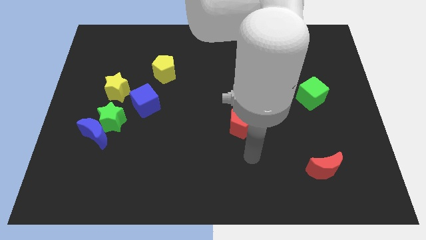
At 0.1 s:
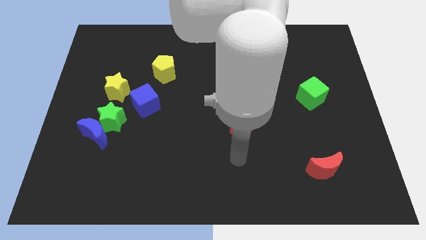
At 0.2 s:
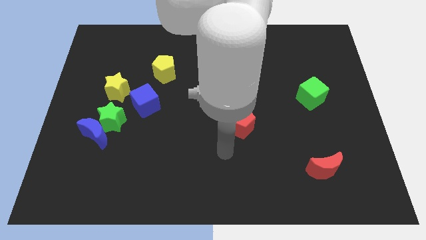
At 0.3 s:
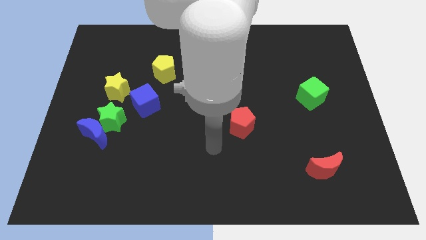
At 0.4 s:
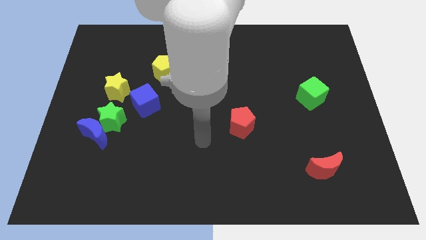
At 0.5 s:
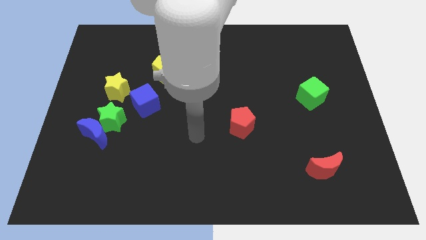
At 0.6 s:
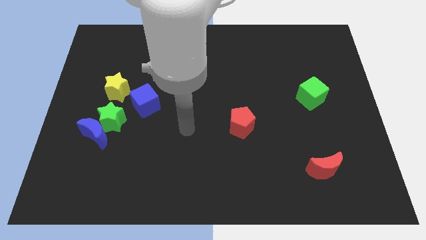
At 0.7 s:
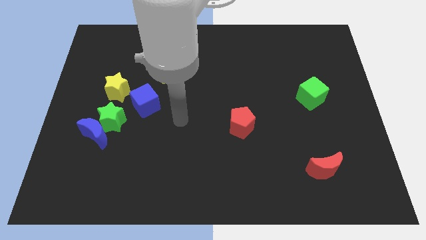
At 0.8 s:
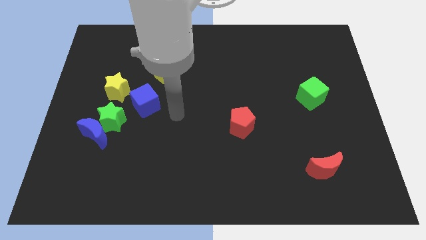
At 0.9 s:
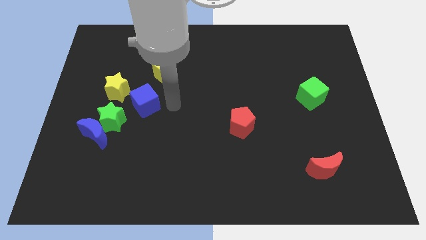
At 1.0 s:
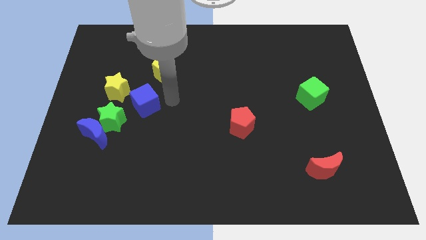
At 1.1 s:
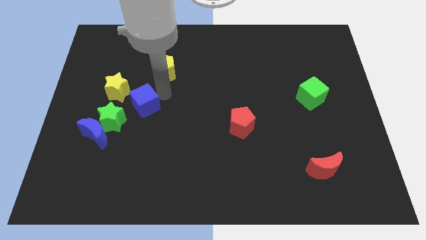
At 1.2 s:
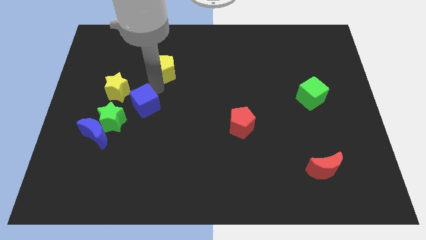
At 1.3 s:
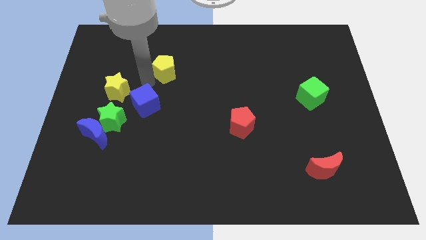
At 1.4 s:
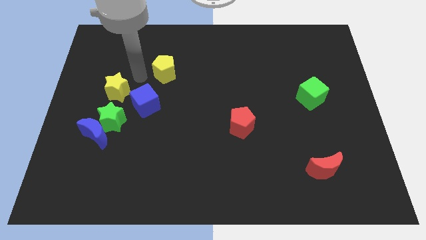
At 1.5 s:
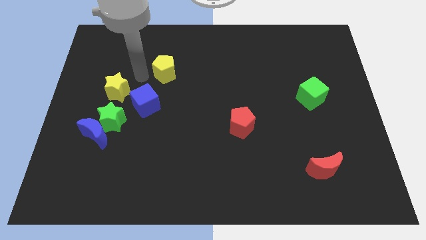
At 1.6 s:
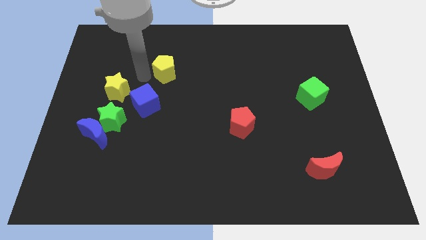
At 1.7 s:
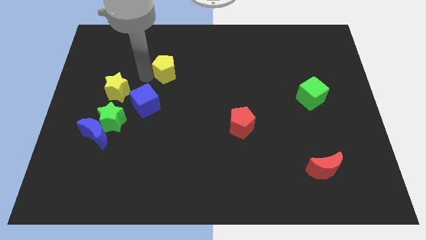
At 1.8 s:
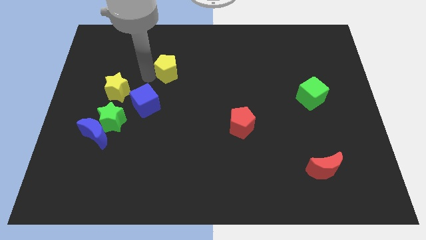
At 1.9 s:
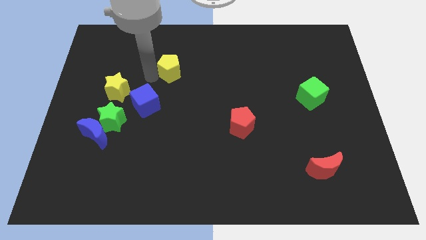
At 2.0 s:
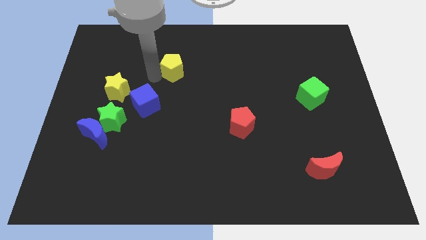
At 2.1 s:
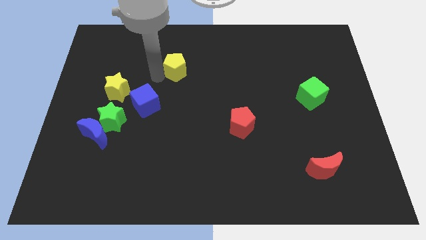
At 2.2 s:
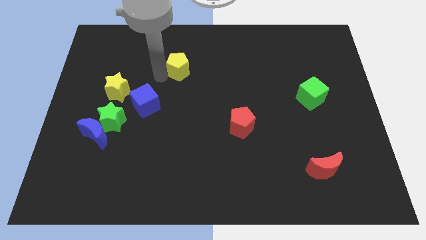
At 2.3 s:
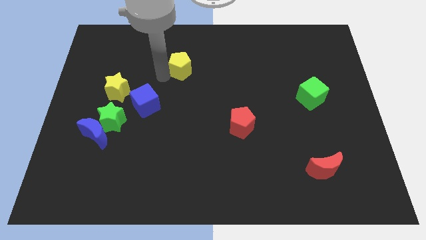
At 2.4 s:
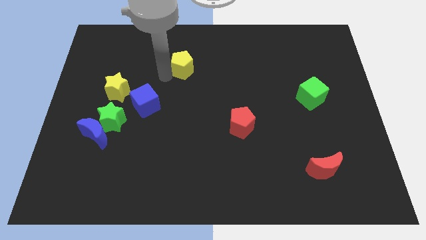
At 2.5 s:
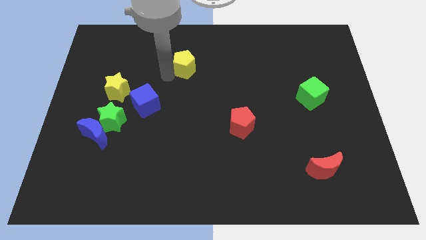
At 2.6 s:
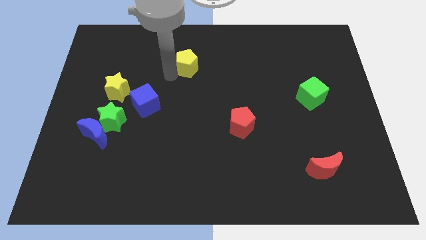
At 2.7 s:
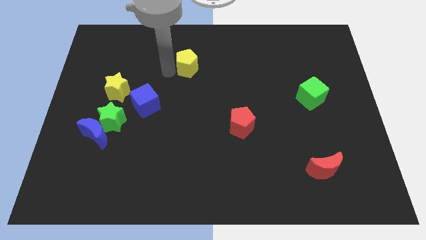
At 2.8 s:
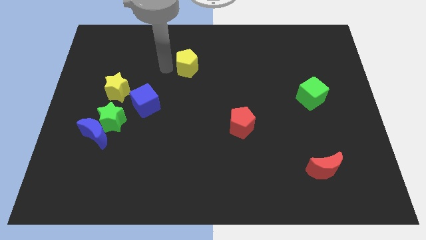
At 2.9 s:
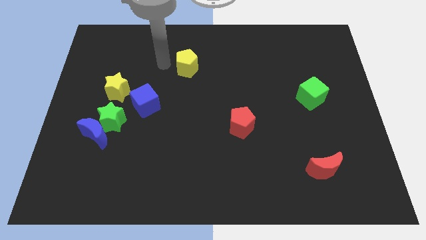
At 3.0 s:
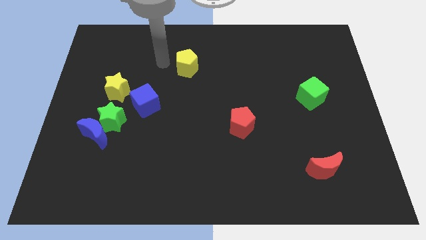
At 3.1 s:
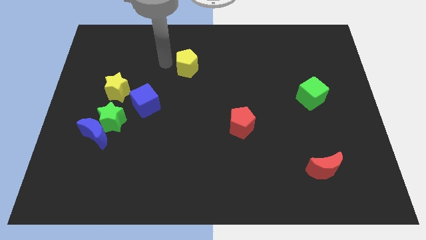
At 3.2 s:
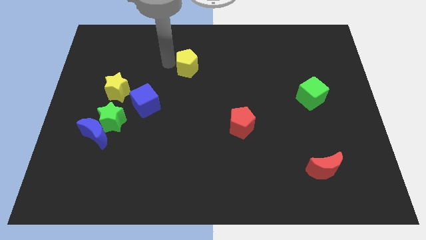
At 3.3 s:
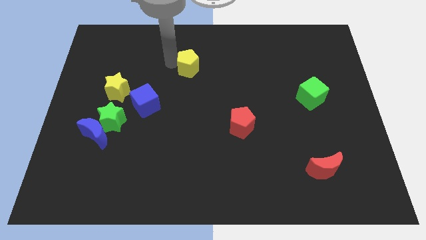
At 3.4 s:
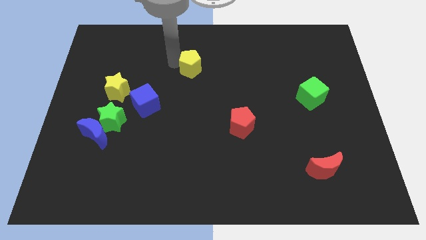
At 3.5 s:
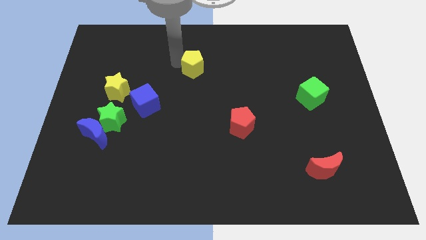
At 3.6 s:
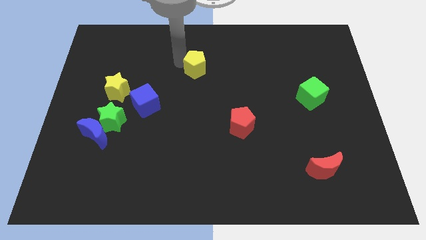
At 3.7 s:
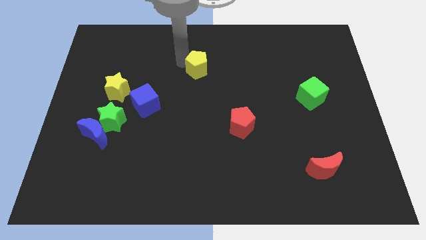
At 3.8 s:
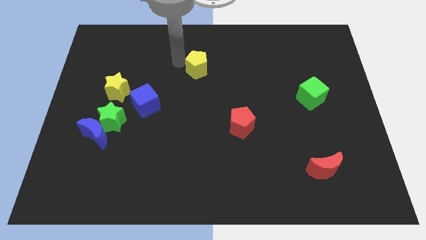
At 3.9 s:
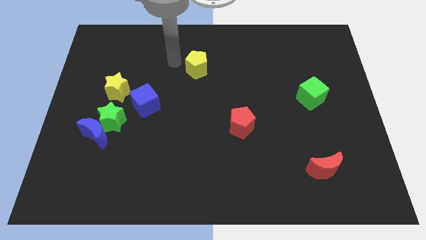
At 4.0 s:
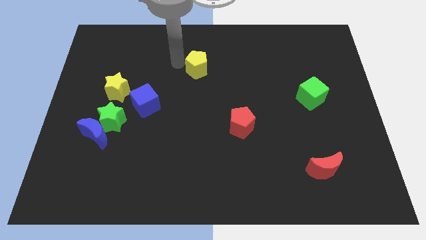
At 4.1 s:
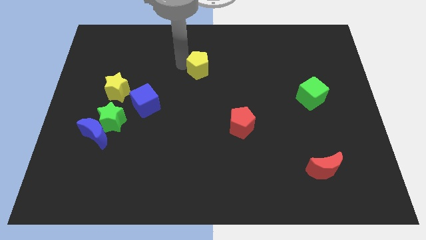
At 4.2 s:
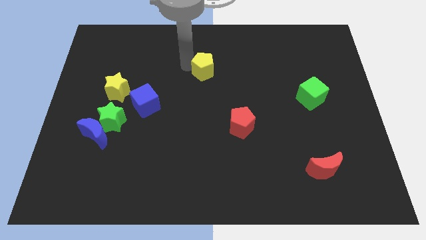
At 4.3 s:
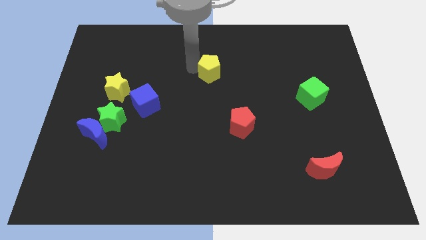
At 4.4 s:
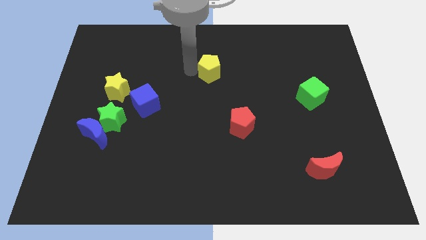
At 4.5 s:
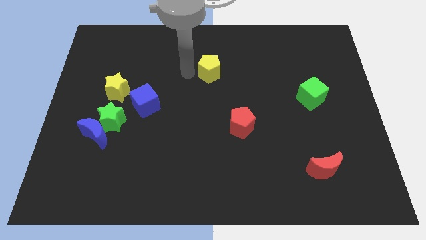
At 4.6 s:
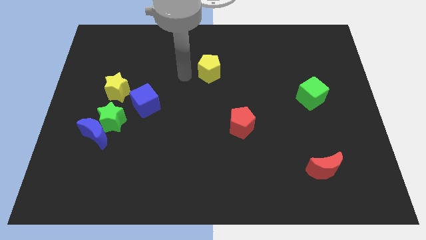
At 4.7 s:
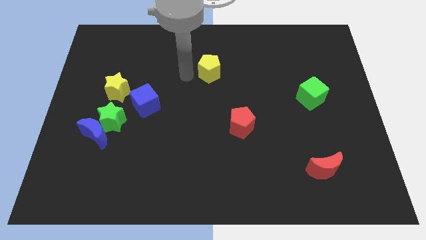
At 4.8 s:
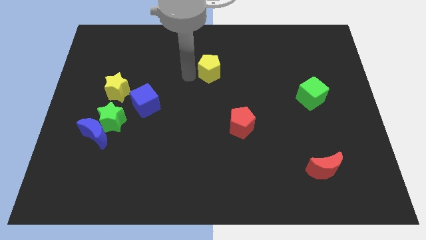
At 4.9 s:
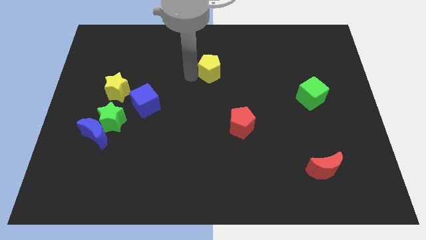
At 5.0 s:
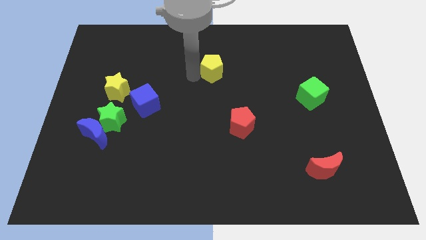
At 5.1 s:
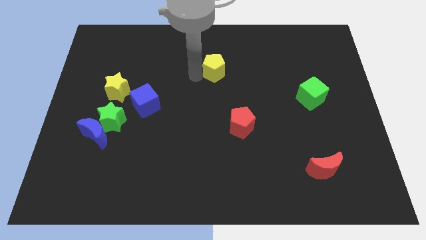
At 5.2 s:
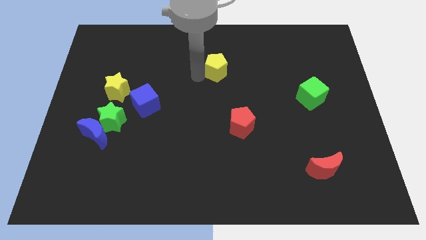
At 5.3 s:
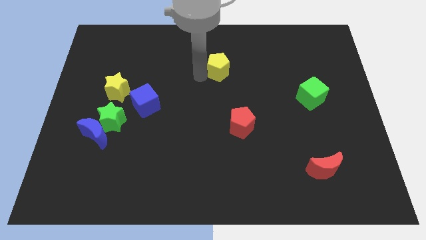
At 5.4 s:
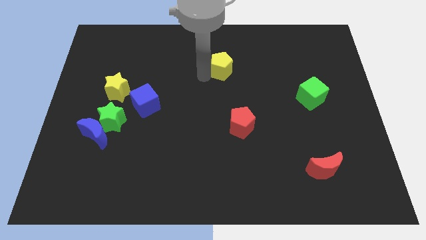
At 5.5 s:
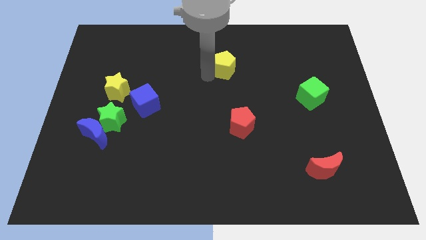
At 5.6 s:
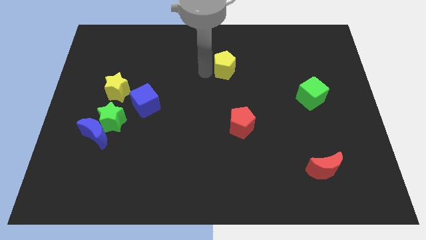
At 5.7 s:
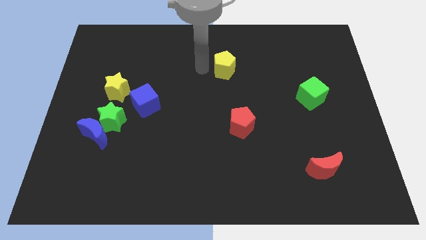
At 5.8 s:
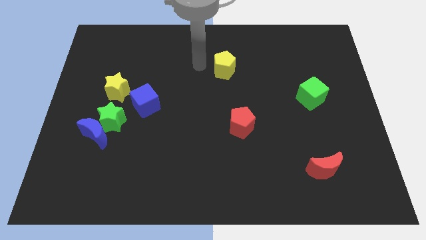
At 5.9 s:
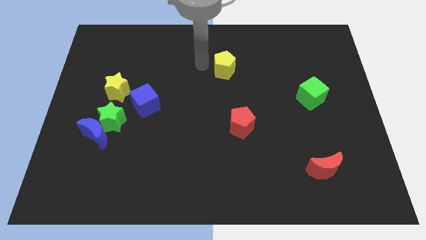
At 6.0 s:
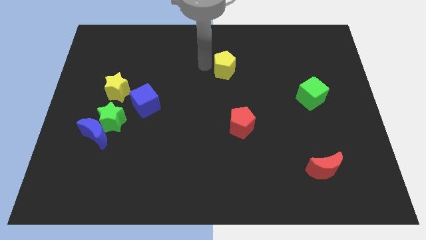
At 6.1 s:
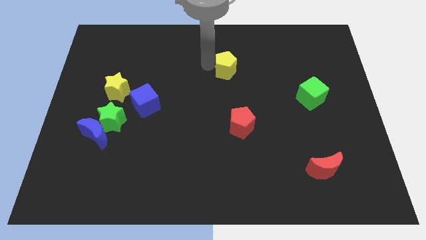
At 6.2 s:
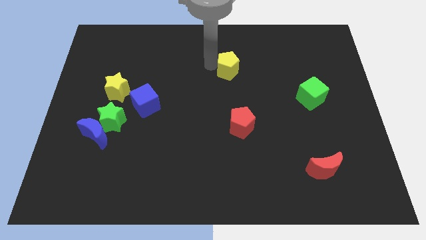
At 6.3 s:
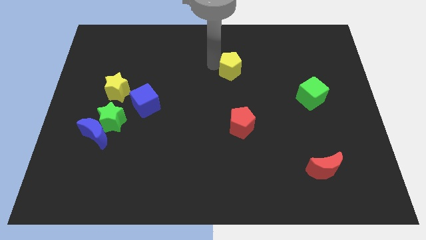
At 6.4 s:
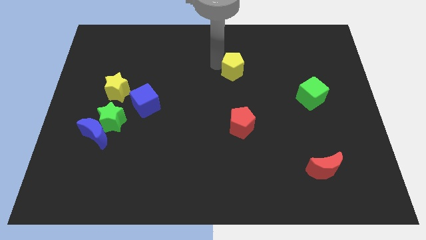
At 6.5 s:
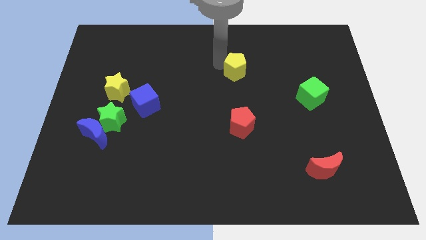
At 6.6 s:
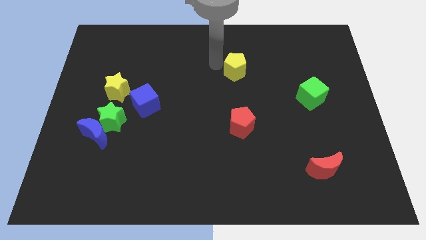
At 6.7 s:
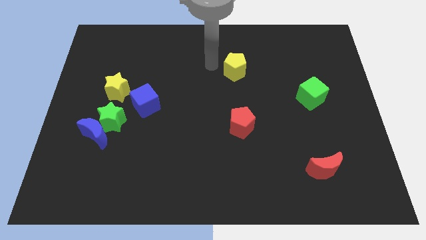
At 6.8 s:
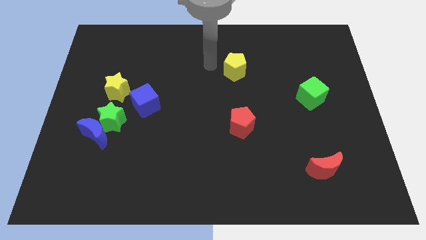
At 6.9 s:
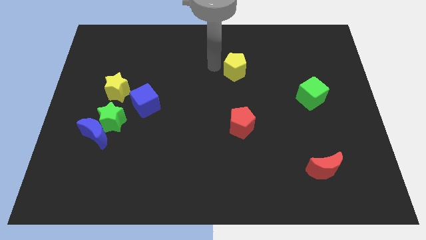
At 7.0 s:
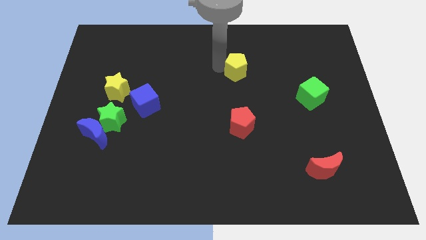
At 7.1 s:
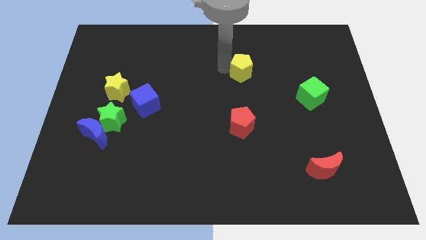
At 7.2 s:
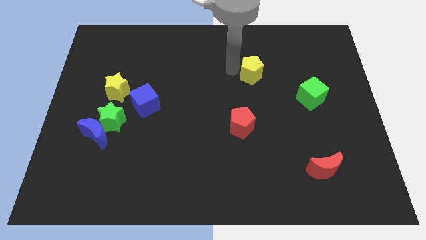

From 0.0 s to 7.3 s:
push the yellow pentagon right

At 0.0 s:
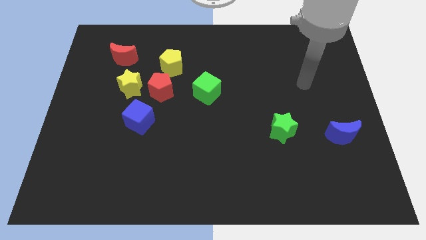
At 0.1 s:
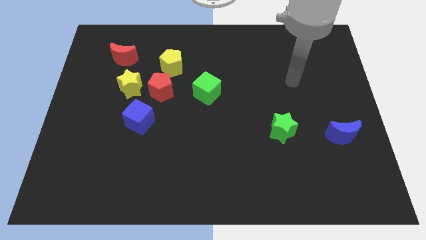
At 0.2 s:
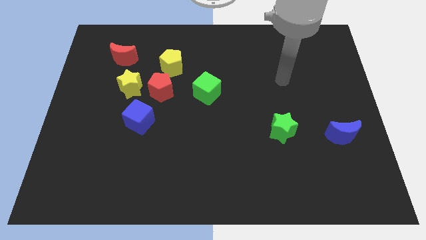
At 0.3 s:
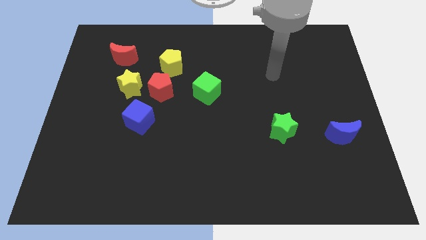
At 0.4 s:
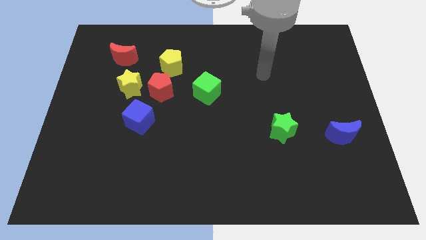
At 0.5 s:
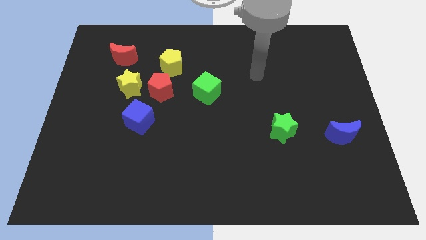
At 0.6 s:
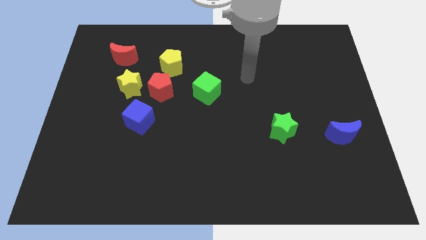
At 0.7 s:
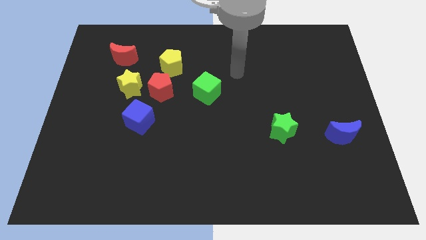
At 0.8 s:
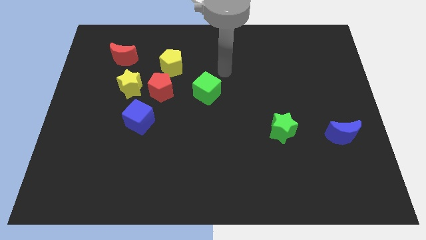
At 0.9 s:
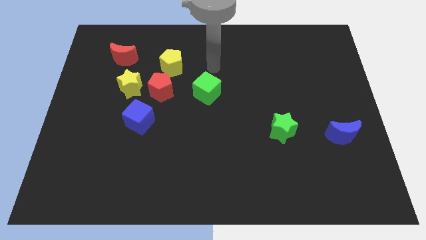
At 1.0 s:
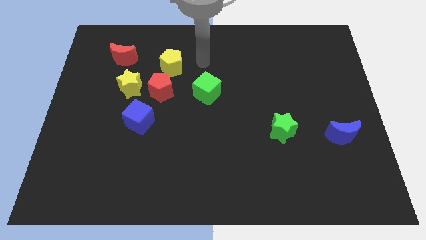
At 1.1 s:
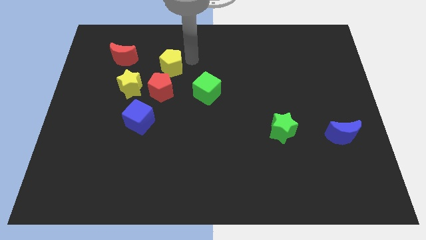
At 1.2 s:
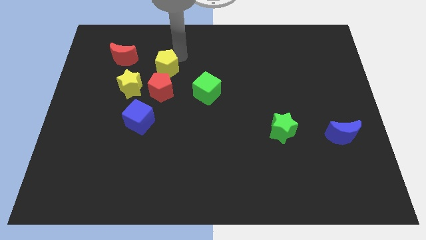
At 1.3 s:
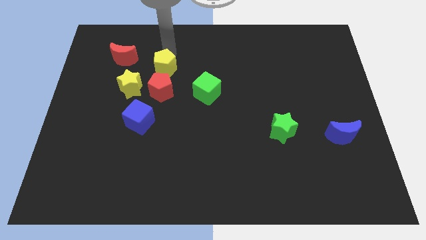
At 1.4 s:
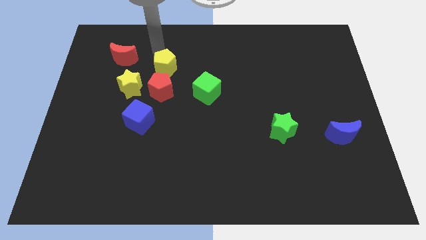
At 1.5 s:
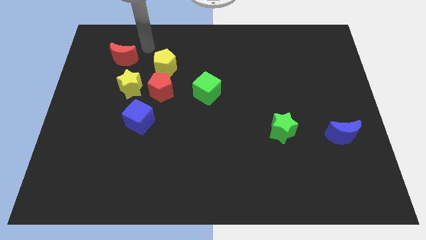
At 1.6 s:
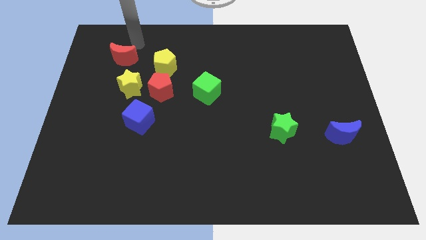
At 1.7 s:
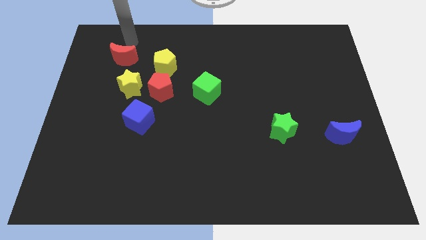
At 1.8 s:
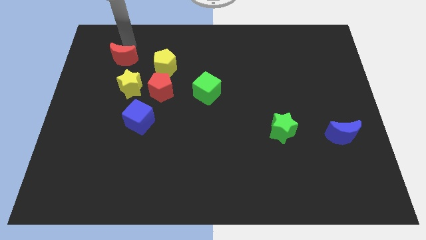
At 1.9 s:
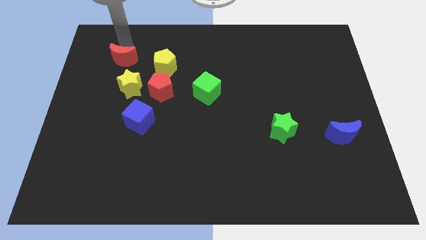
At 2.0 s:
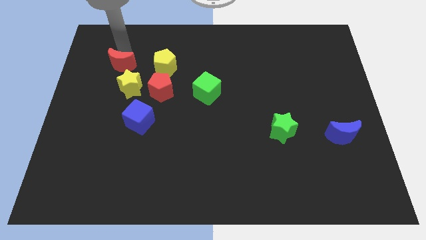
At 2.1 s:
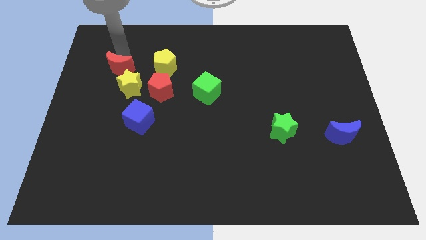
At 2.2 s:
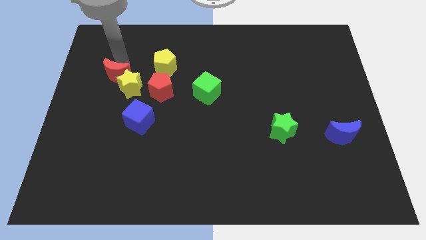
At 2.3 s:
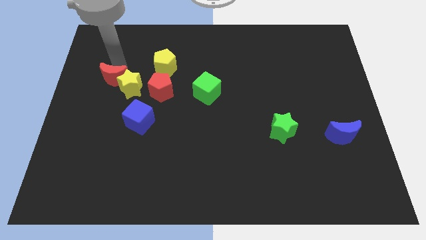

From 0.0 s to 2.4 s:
slide the red moon slightly downwards
